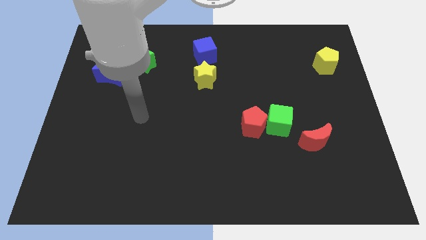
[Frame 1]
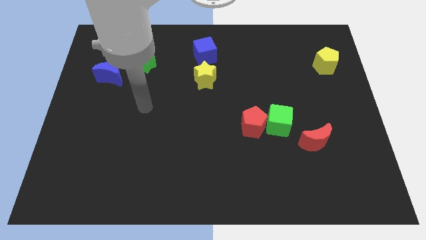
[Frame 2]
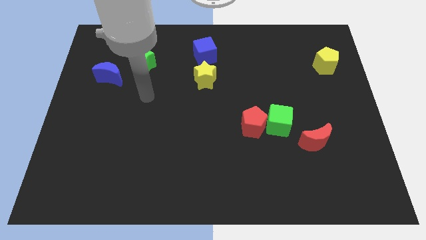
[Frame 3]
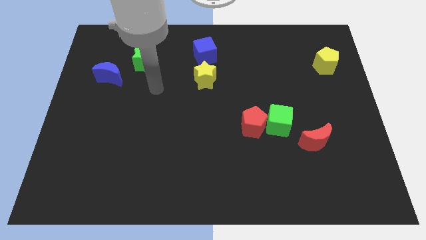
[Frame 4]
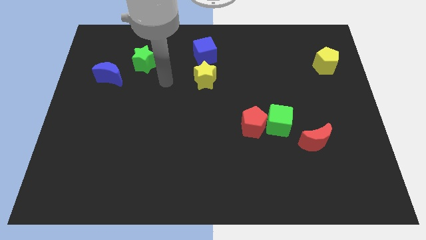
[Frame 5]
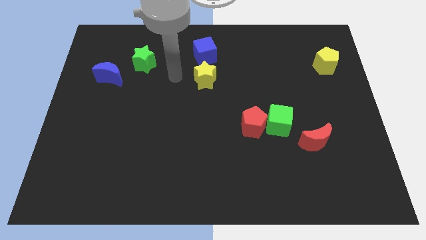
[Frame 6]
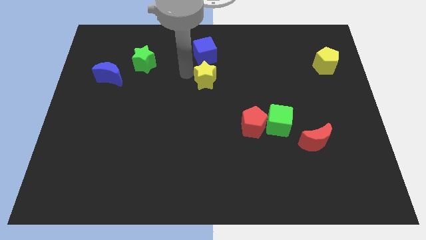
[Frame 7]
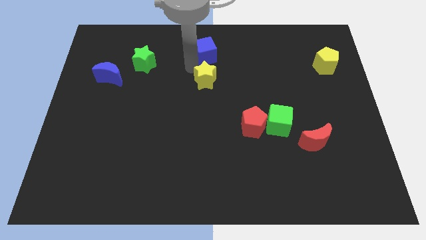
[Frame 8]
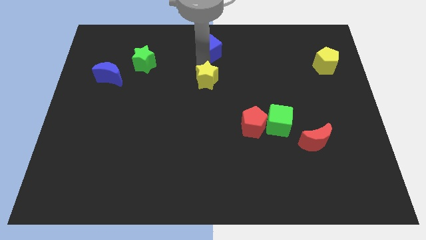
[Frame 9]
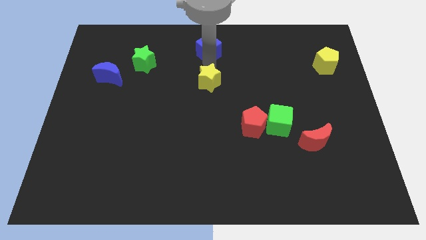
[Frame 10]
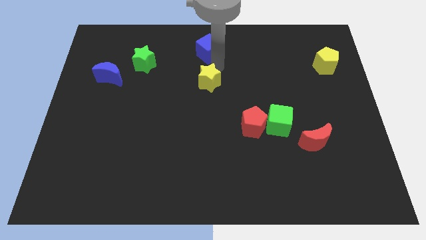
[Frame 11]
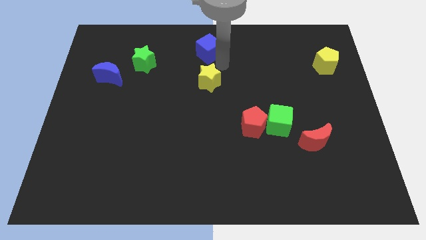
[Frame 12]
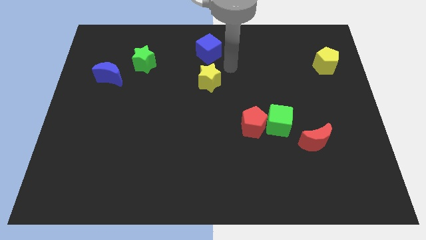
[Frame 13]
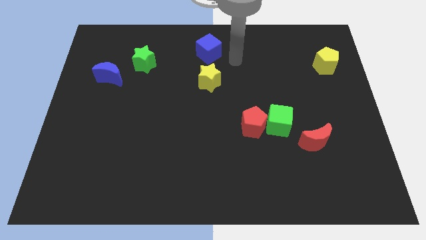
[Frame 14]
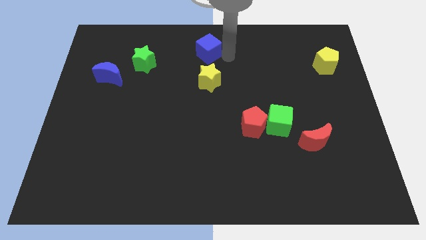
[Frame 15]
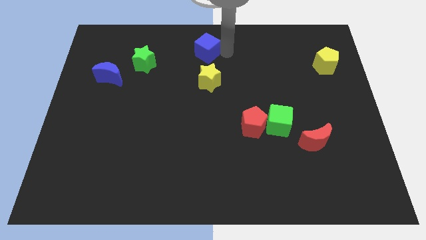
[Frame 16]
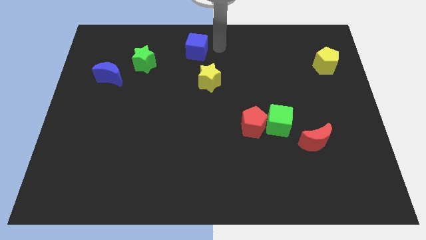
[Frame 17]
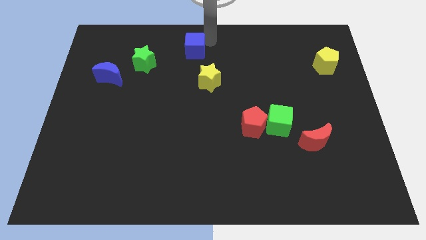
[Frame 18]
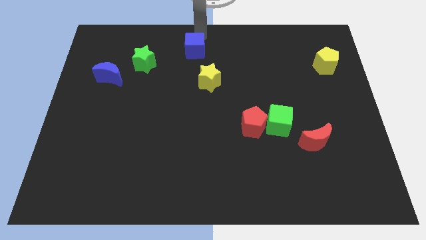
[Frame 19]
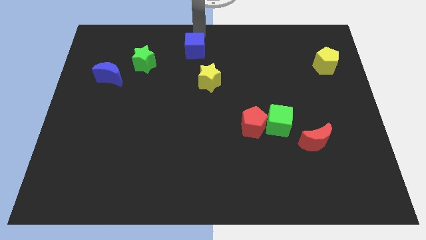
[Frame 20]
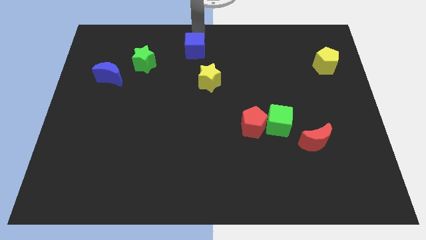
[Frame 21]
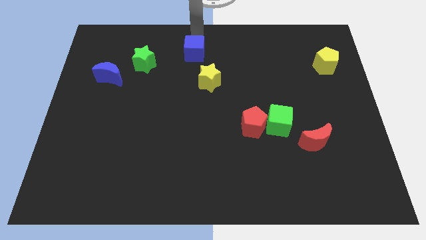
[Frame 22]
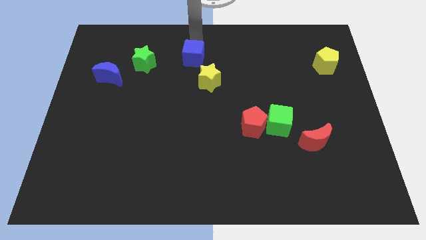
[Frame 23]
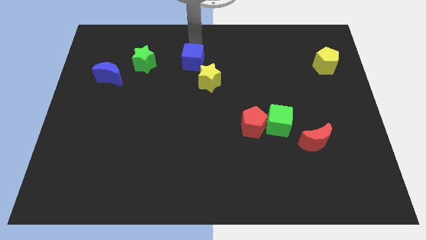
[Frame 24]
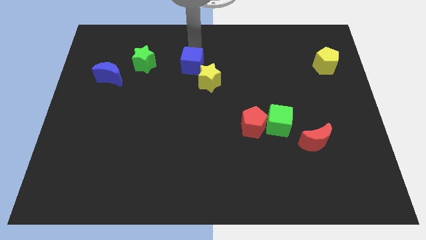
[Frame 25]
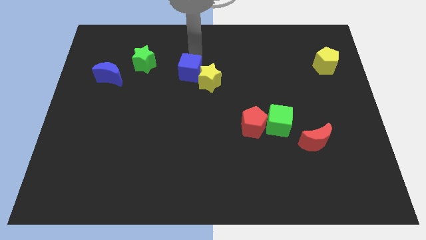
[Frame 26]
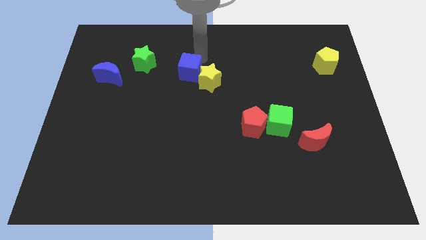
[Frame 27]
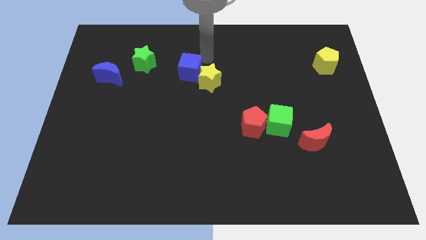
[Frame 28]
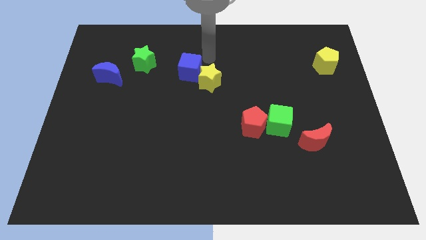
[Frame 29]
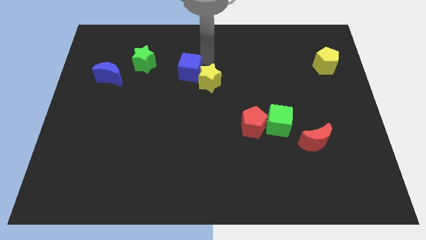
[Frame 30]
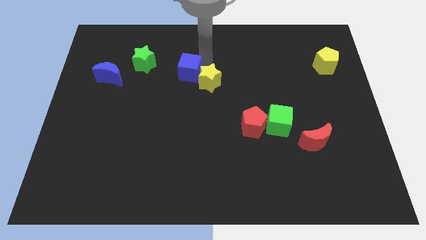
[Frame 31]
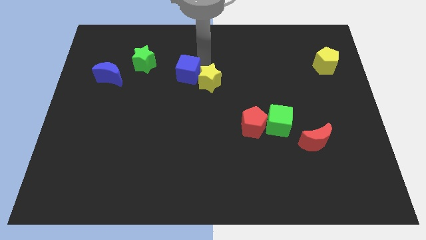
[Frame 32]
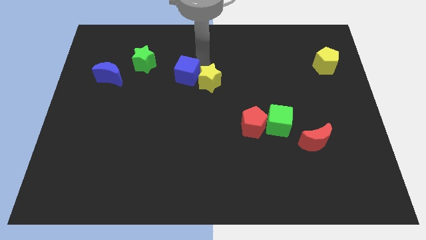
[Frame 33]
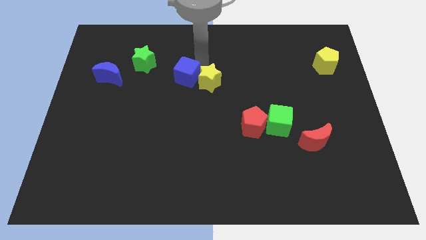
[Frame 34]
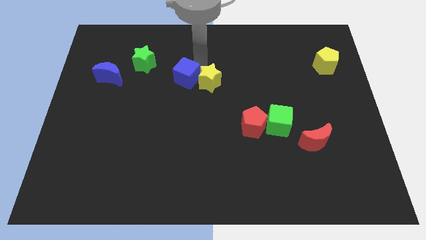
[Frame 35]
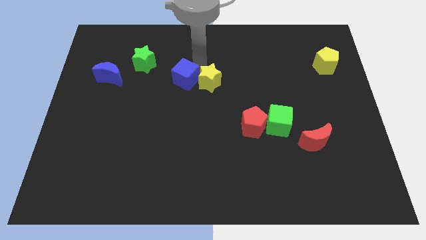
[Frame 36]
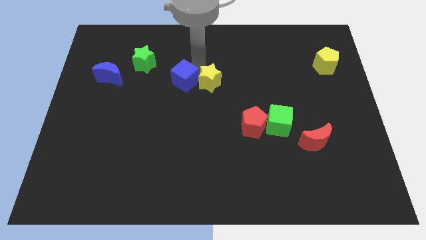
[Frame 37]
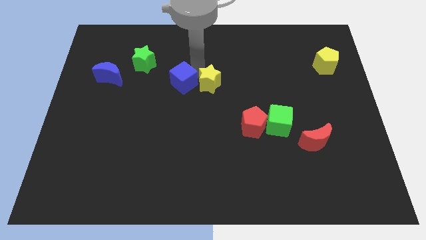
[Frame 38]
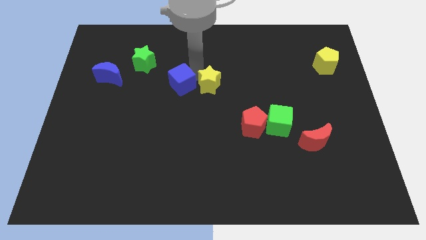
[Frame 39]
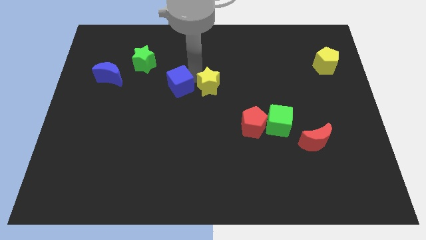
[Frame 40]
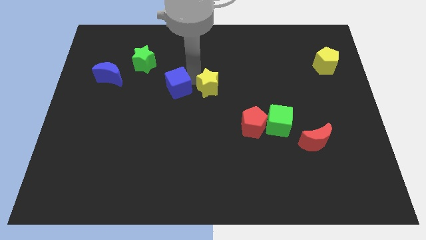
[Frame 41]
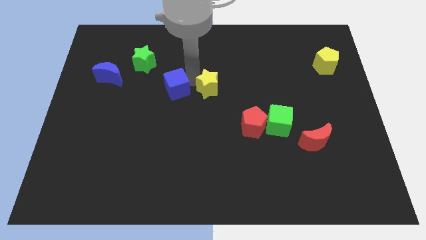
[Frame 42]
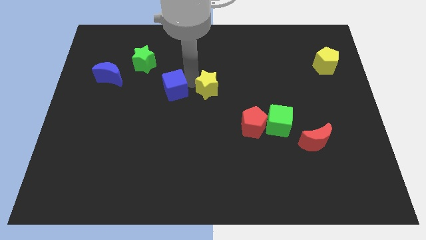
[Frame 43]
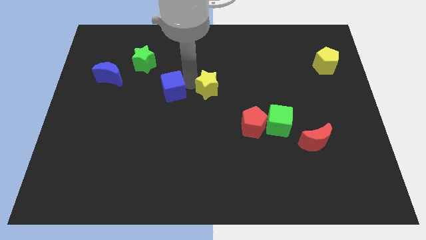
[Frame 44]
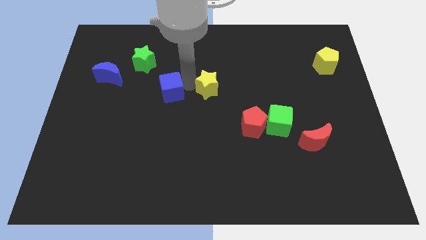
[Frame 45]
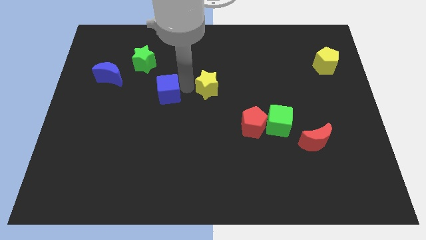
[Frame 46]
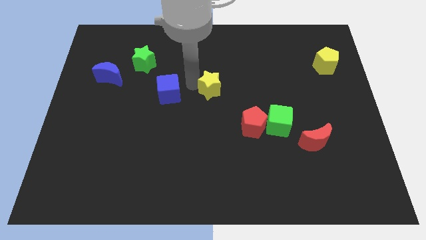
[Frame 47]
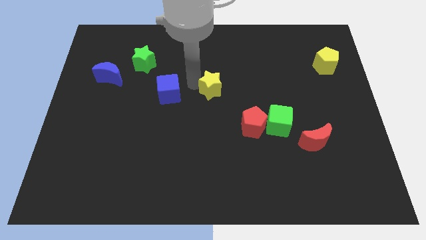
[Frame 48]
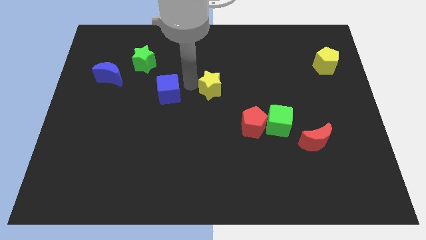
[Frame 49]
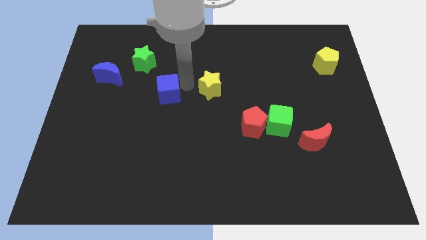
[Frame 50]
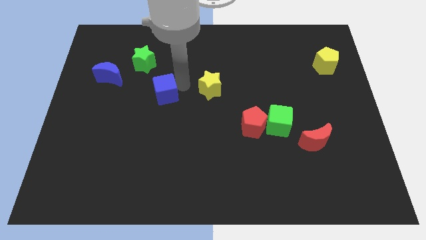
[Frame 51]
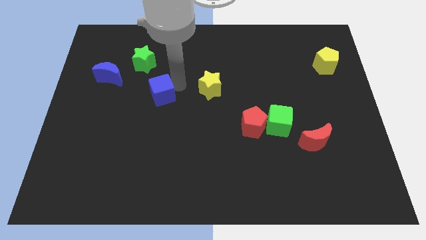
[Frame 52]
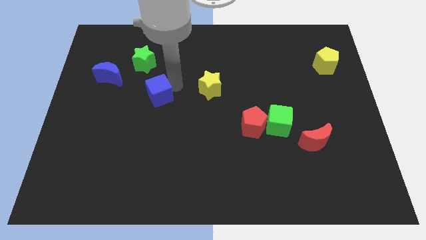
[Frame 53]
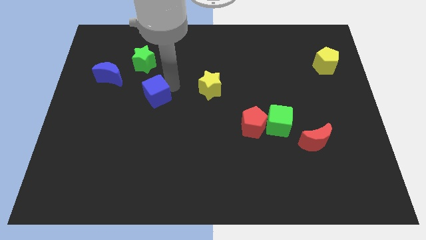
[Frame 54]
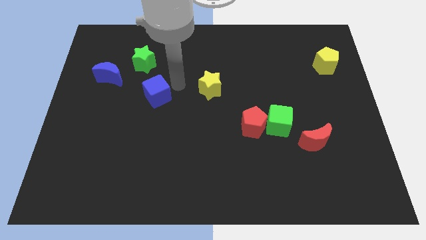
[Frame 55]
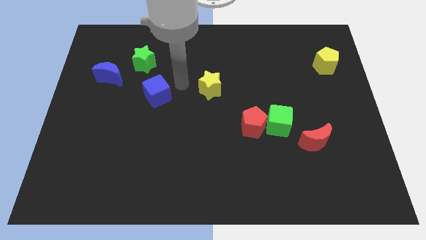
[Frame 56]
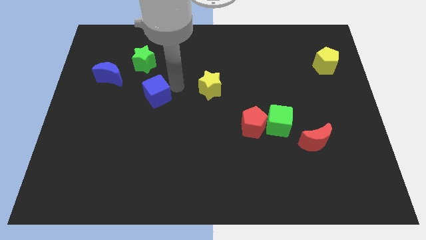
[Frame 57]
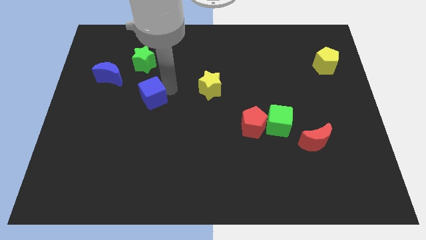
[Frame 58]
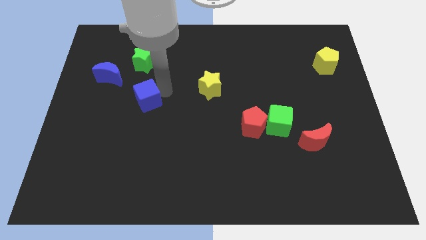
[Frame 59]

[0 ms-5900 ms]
push the blue cube downwards and left

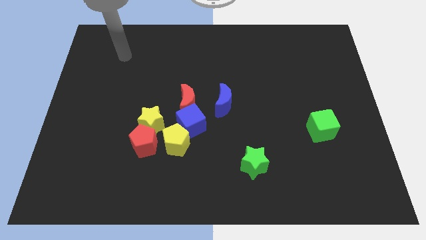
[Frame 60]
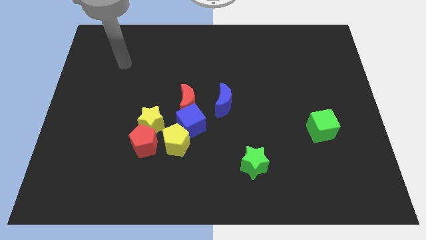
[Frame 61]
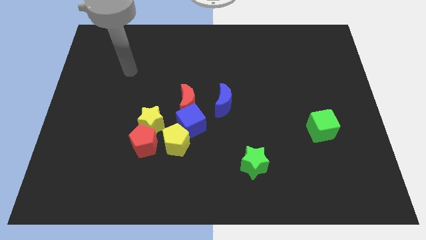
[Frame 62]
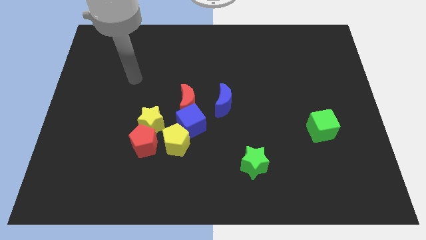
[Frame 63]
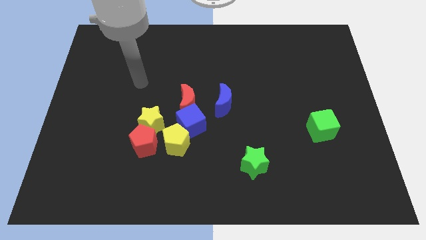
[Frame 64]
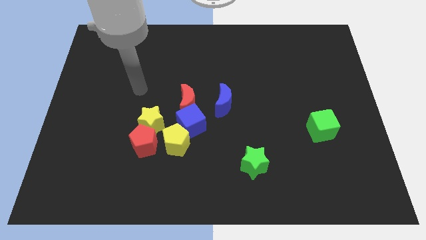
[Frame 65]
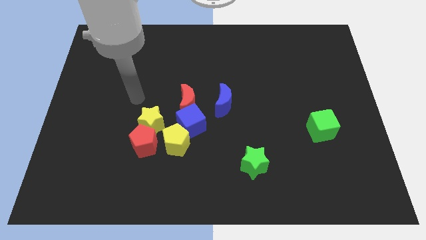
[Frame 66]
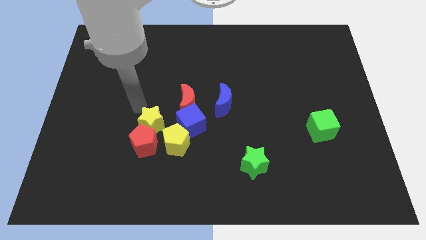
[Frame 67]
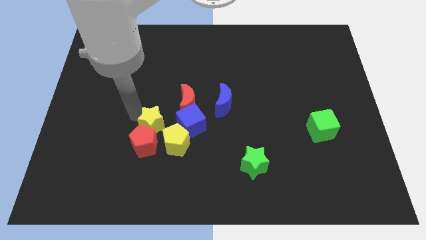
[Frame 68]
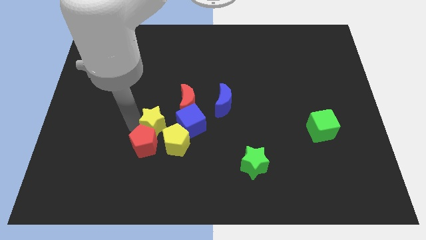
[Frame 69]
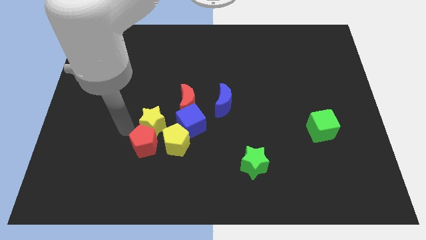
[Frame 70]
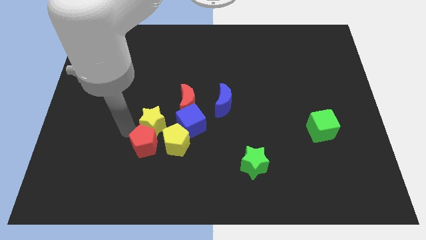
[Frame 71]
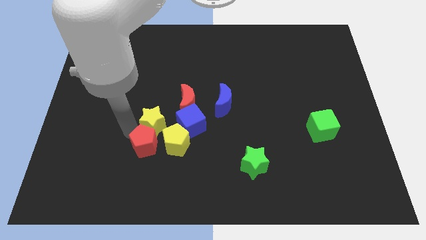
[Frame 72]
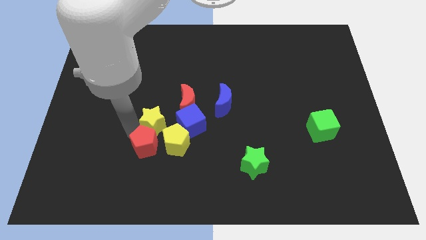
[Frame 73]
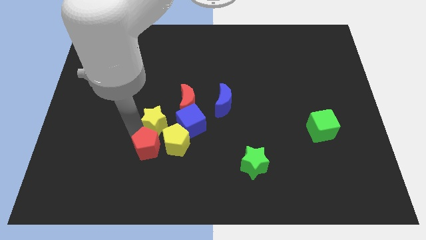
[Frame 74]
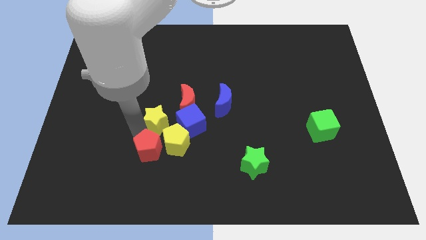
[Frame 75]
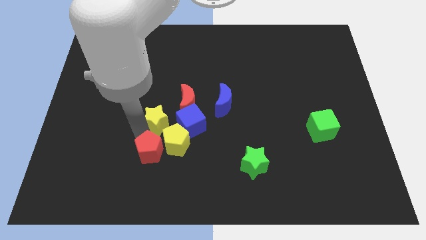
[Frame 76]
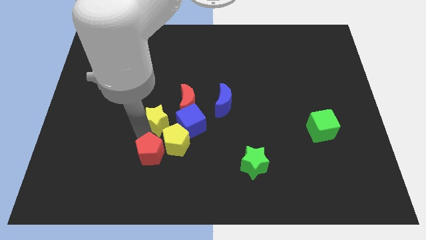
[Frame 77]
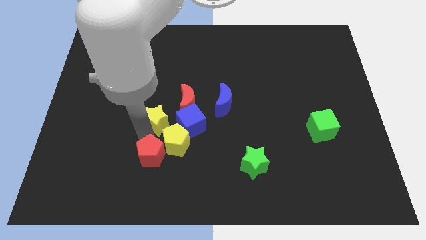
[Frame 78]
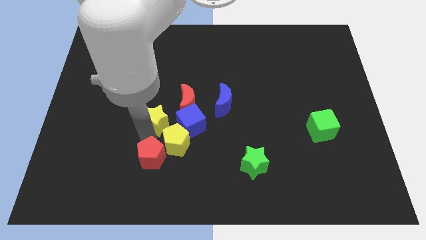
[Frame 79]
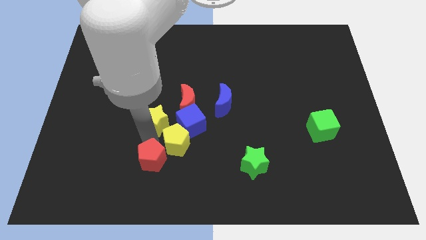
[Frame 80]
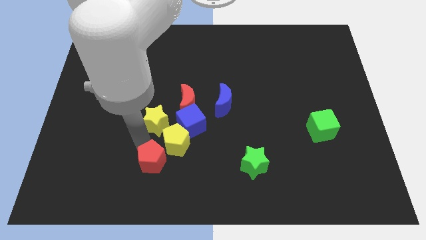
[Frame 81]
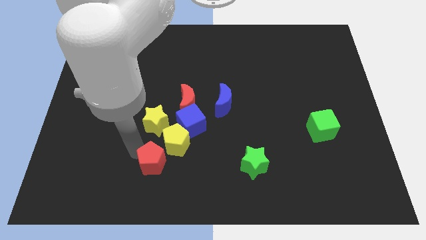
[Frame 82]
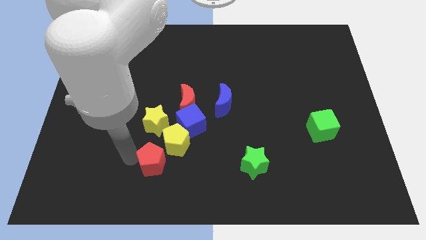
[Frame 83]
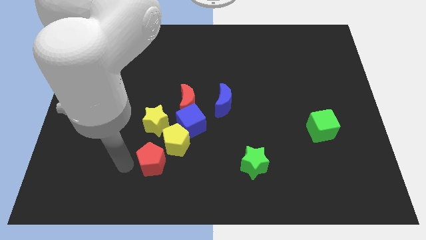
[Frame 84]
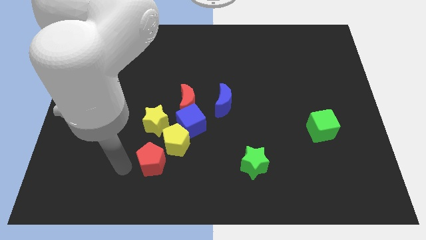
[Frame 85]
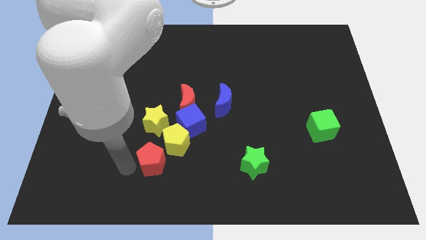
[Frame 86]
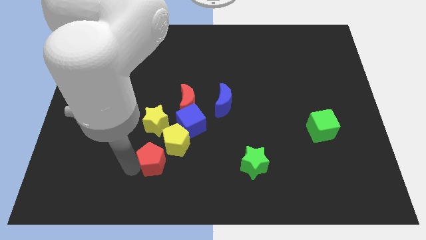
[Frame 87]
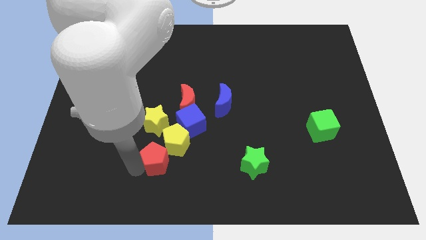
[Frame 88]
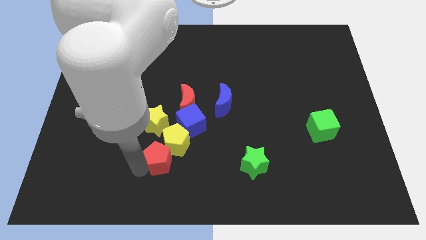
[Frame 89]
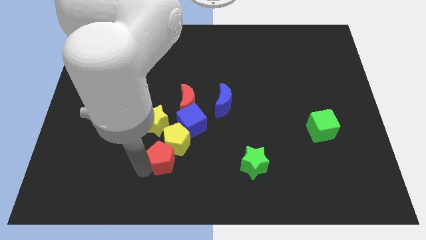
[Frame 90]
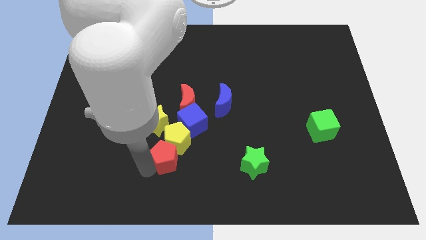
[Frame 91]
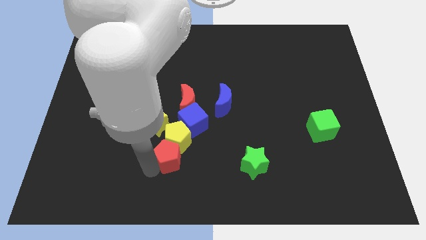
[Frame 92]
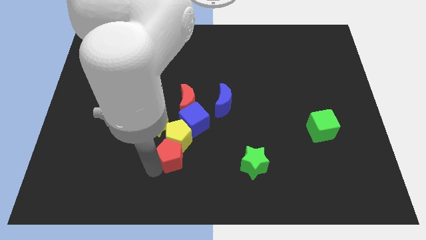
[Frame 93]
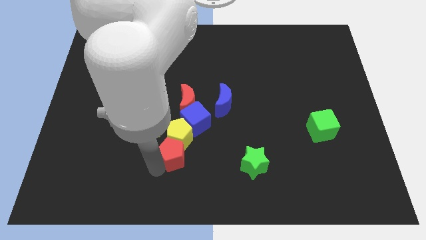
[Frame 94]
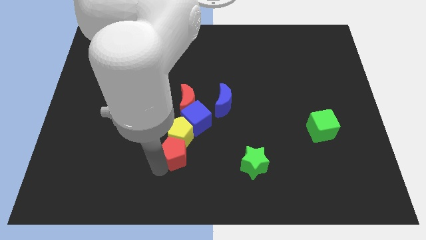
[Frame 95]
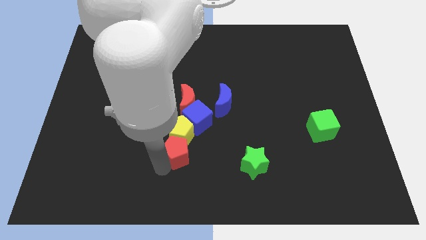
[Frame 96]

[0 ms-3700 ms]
slightly slide the red pentagon to the right
